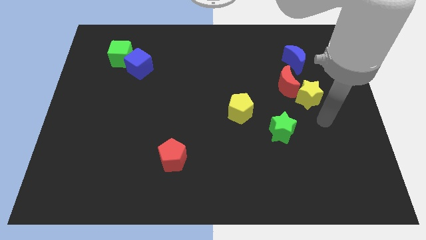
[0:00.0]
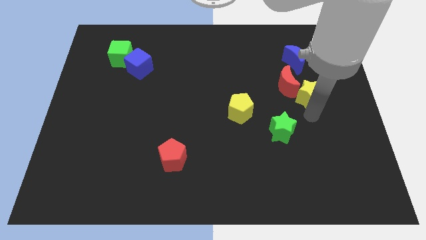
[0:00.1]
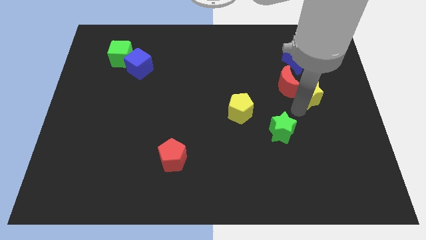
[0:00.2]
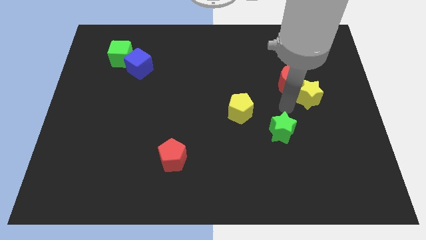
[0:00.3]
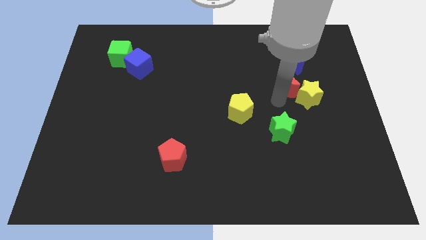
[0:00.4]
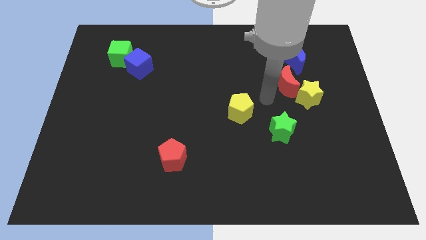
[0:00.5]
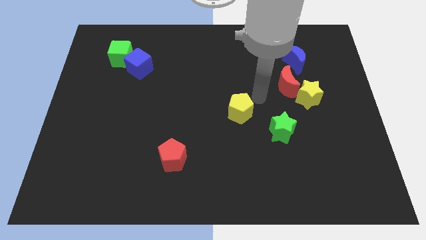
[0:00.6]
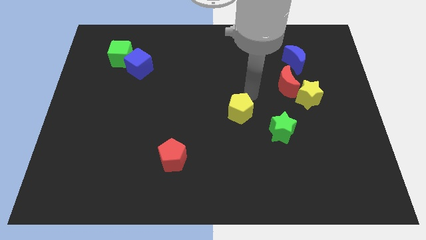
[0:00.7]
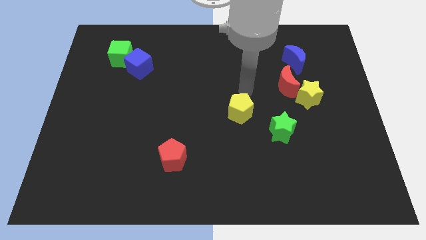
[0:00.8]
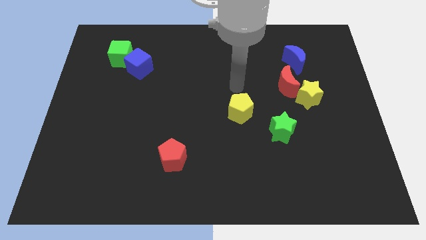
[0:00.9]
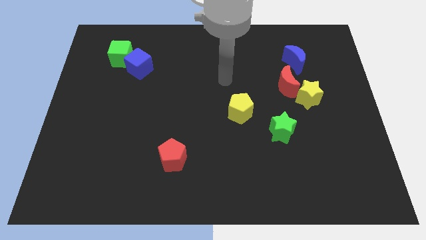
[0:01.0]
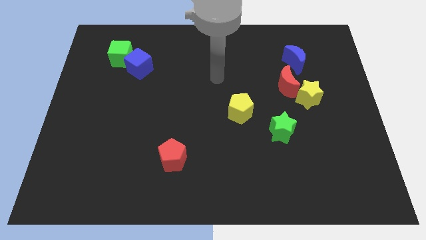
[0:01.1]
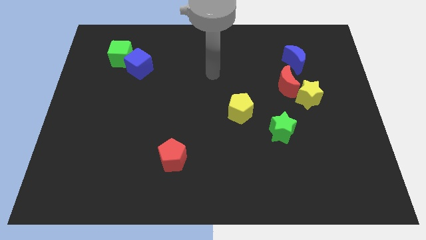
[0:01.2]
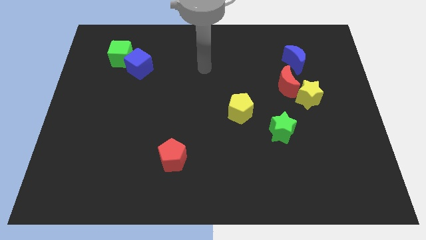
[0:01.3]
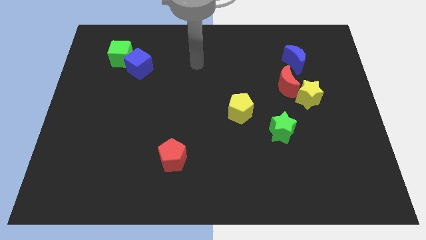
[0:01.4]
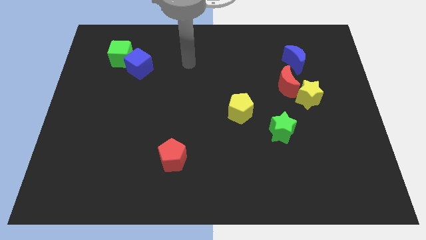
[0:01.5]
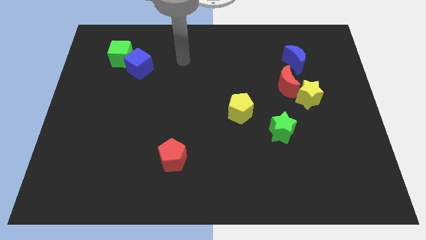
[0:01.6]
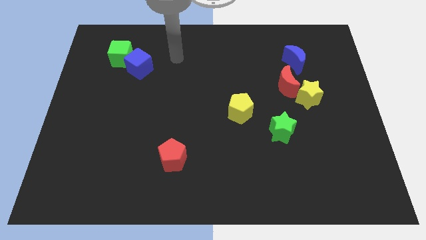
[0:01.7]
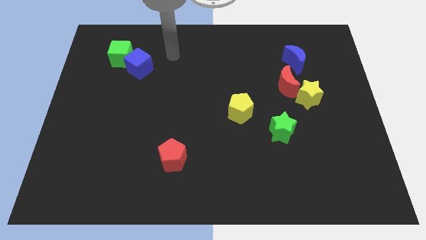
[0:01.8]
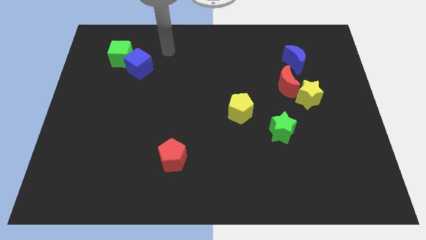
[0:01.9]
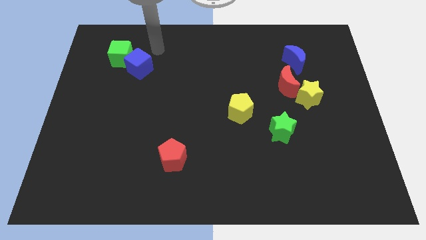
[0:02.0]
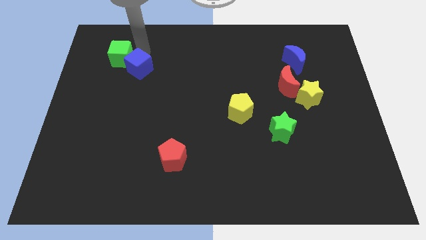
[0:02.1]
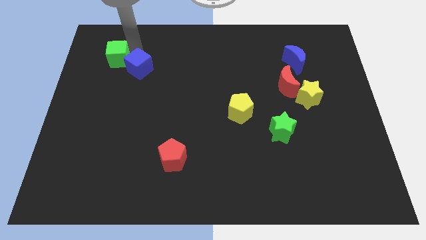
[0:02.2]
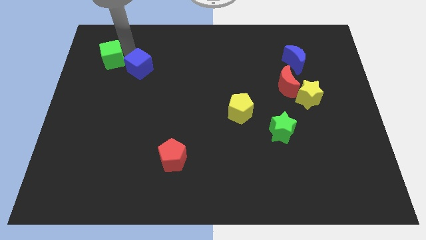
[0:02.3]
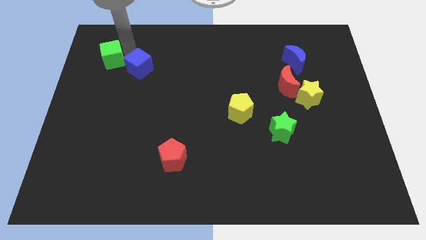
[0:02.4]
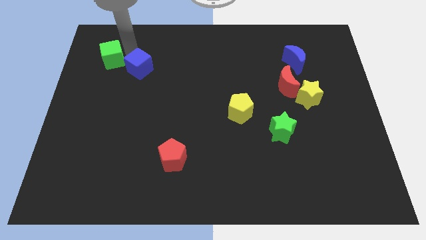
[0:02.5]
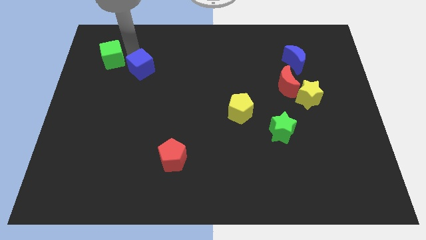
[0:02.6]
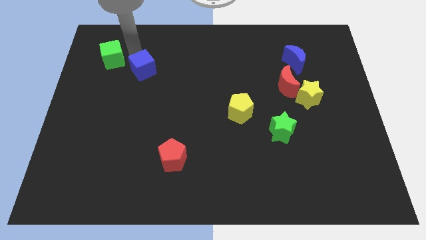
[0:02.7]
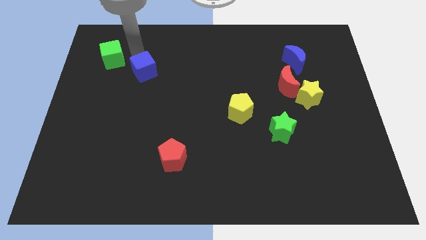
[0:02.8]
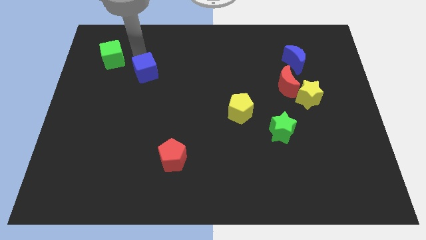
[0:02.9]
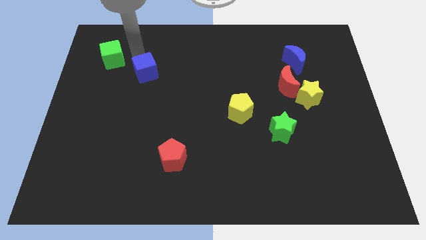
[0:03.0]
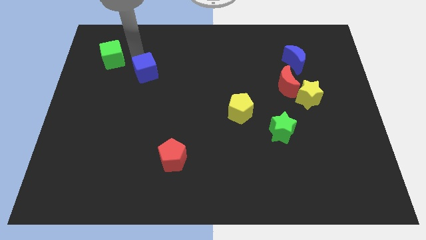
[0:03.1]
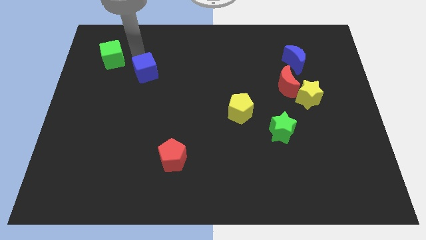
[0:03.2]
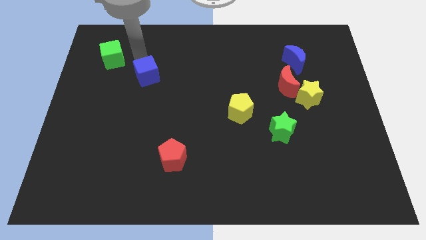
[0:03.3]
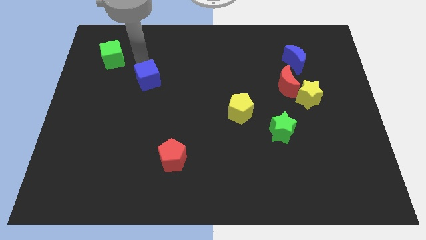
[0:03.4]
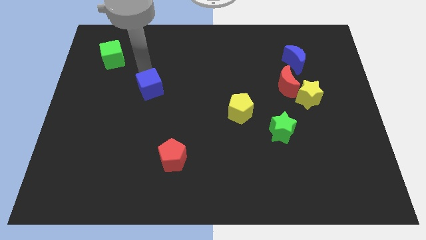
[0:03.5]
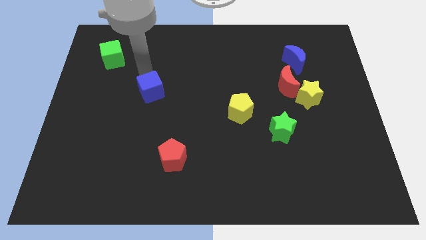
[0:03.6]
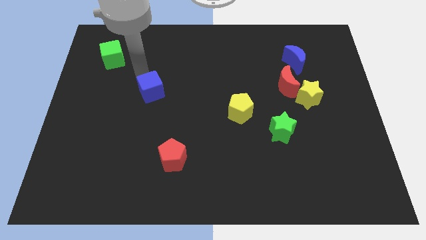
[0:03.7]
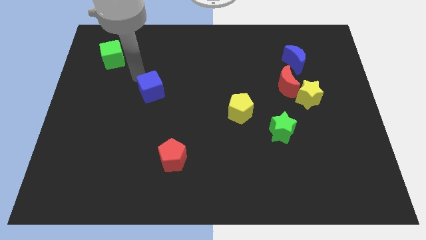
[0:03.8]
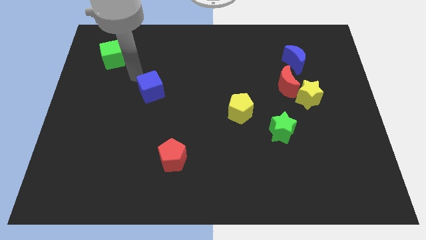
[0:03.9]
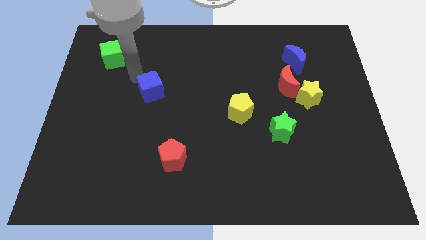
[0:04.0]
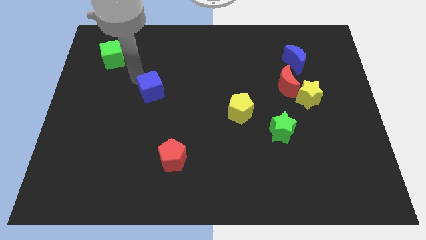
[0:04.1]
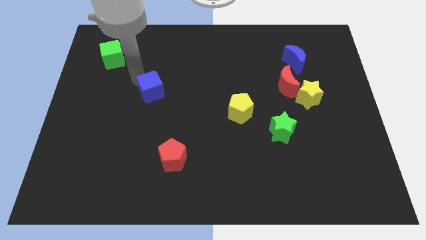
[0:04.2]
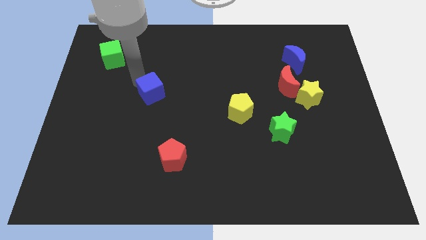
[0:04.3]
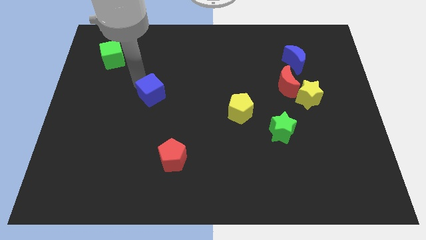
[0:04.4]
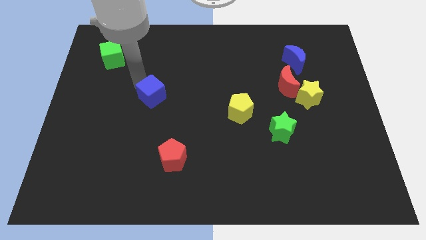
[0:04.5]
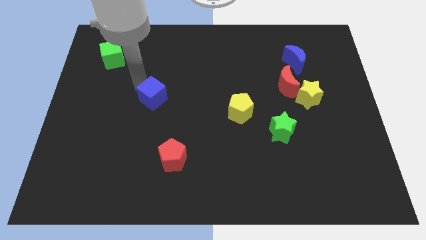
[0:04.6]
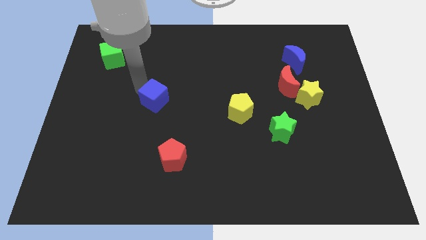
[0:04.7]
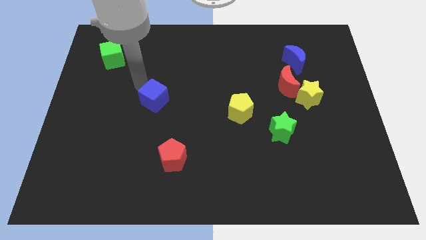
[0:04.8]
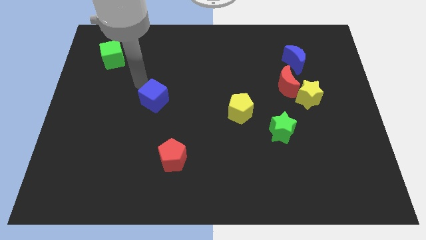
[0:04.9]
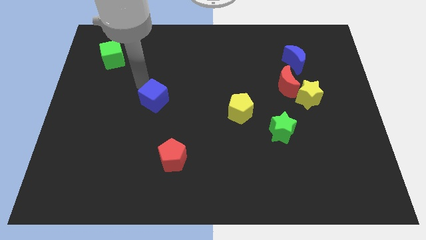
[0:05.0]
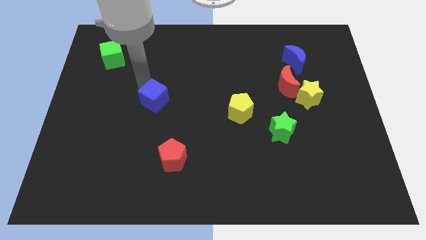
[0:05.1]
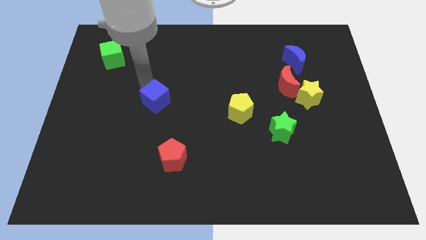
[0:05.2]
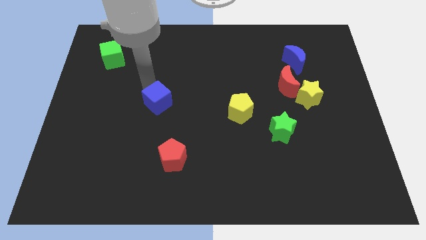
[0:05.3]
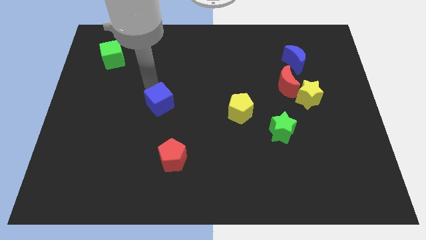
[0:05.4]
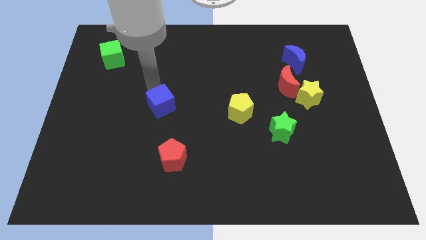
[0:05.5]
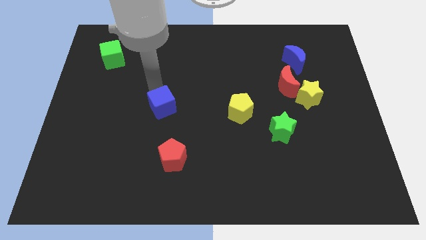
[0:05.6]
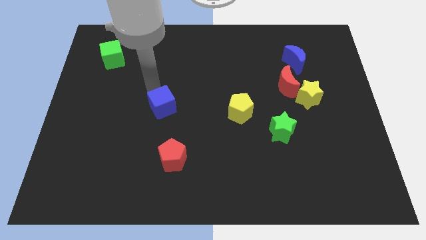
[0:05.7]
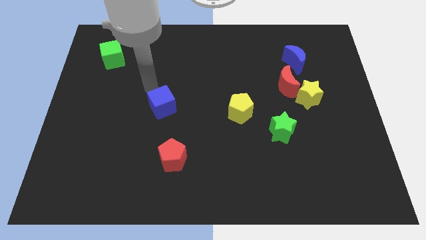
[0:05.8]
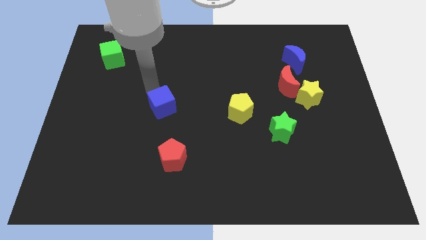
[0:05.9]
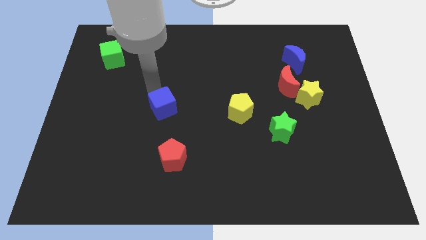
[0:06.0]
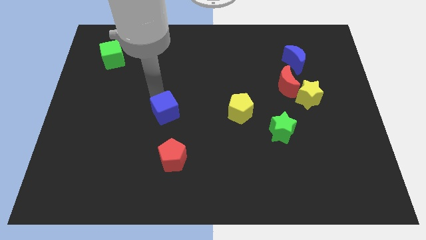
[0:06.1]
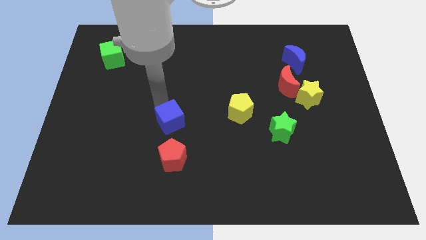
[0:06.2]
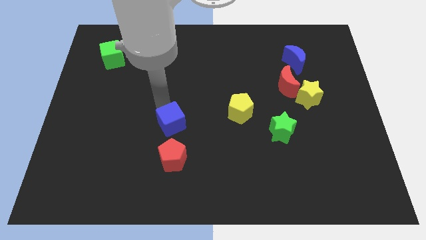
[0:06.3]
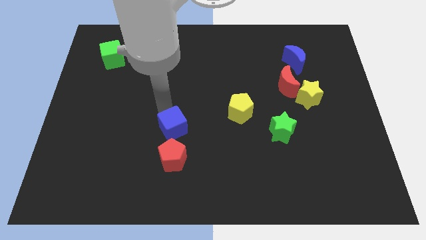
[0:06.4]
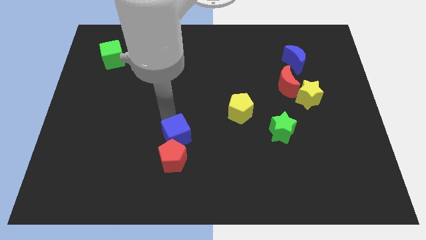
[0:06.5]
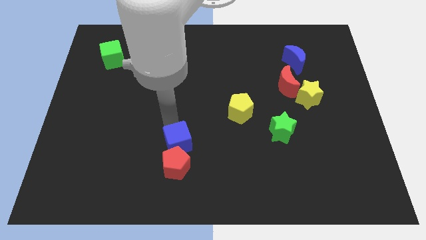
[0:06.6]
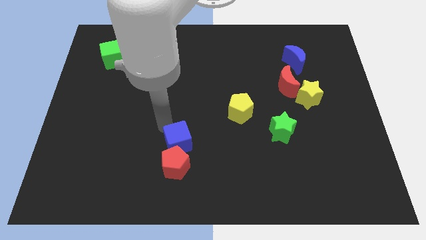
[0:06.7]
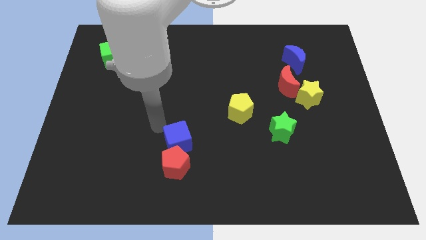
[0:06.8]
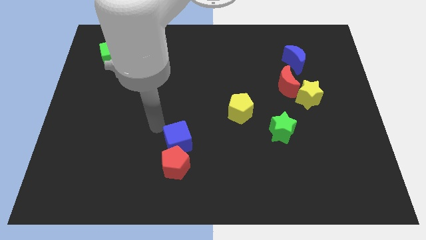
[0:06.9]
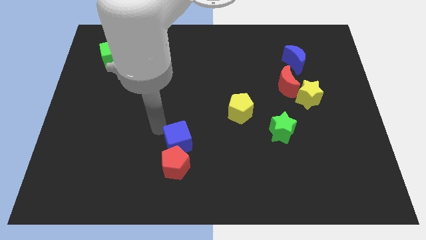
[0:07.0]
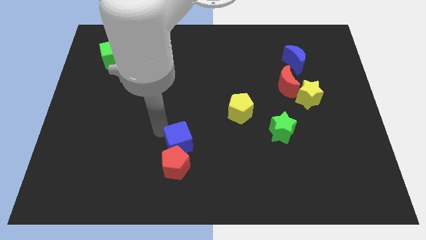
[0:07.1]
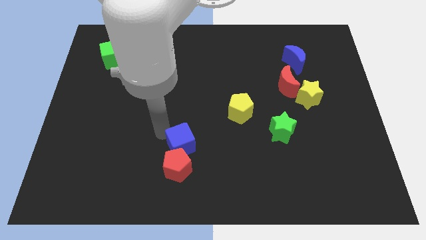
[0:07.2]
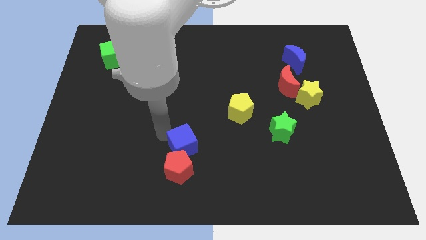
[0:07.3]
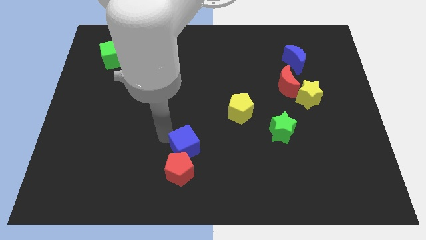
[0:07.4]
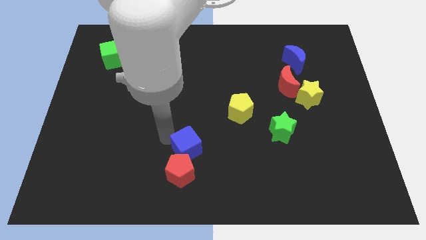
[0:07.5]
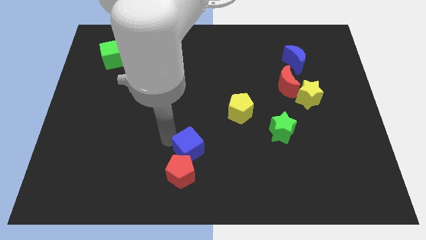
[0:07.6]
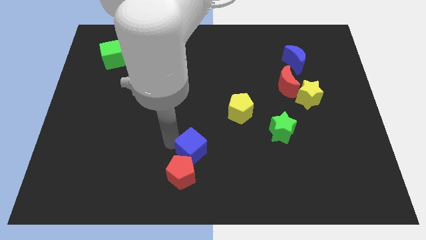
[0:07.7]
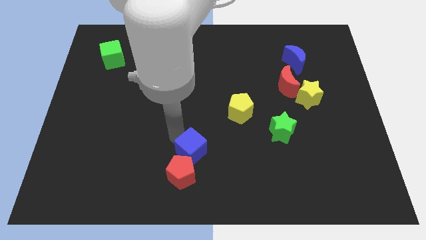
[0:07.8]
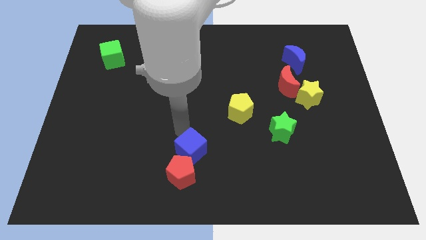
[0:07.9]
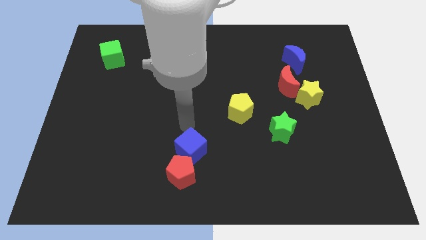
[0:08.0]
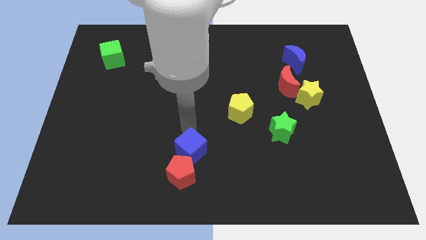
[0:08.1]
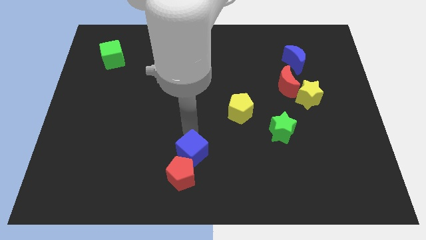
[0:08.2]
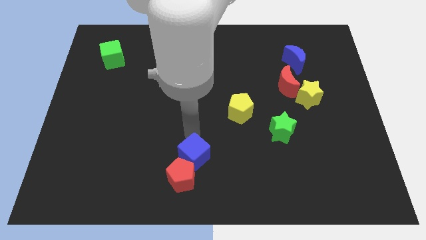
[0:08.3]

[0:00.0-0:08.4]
put the blue cube to the bottom side
